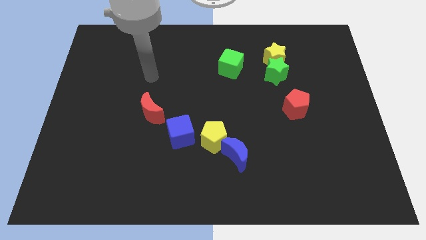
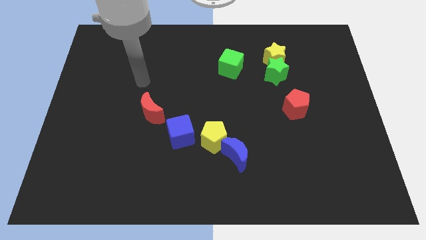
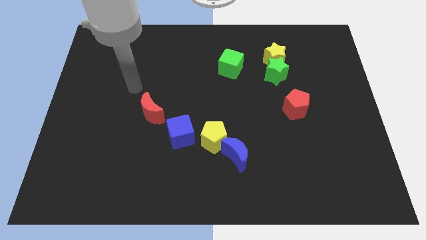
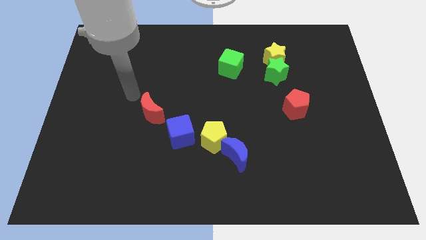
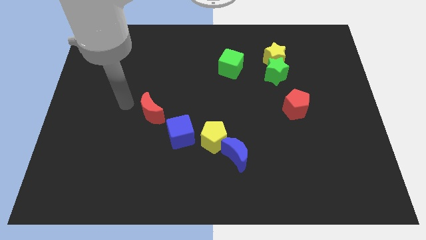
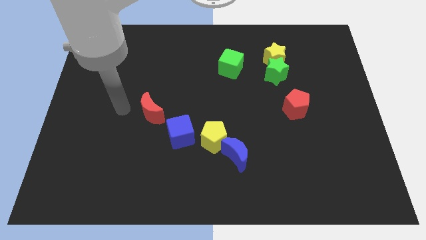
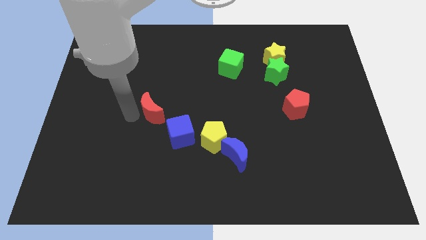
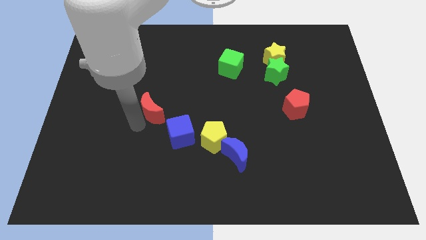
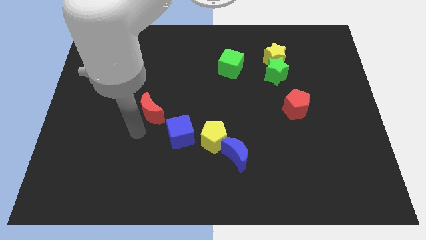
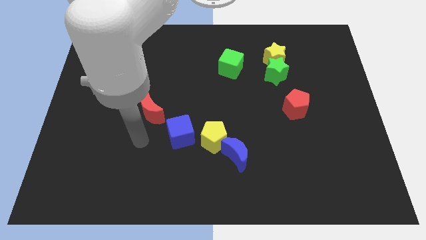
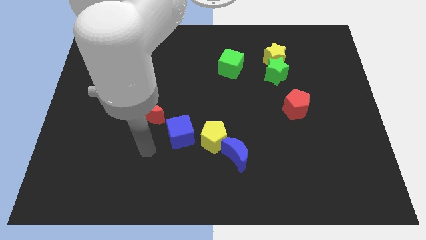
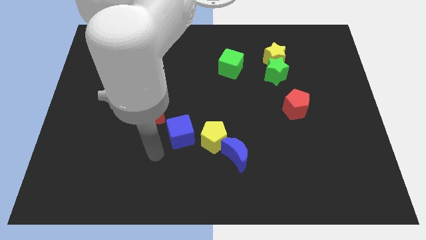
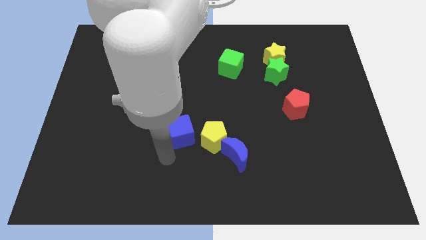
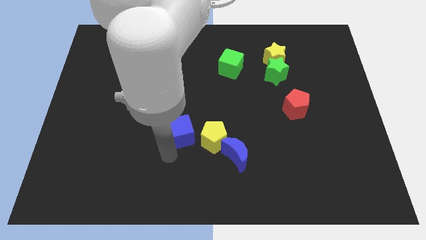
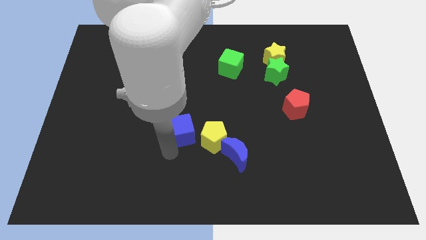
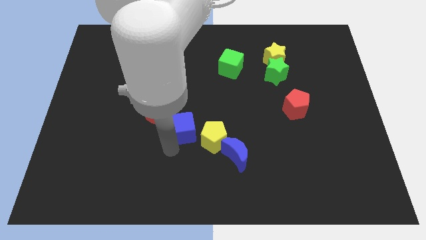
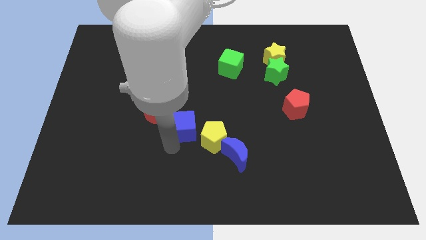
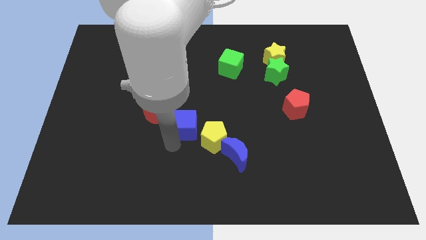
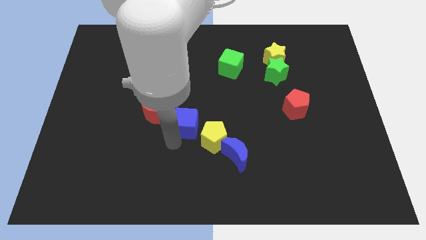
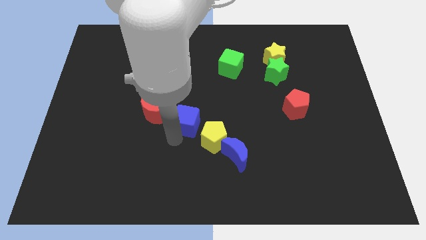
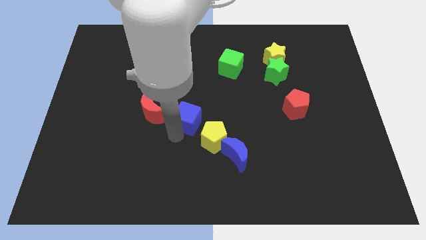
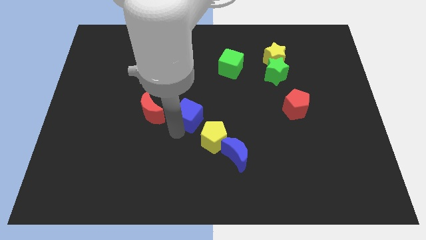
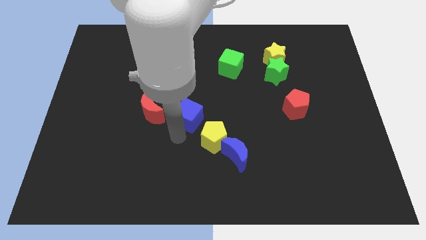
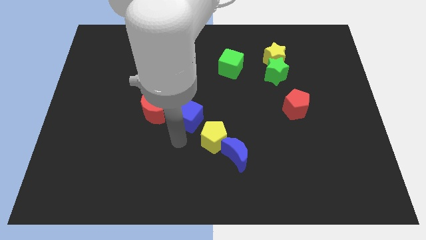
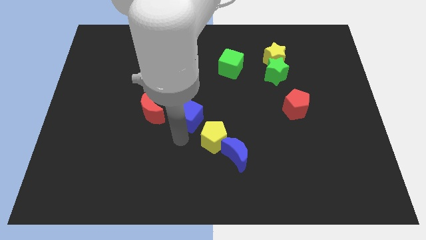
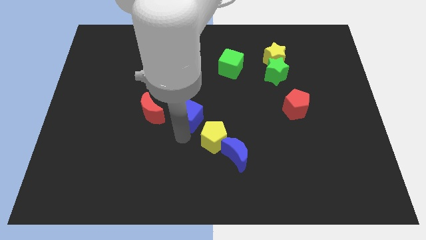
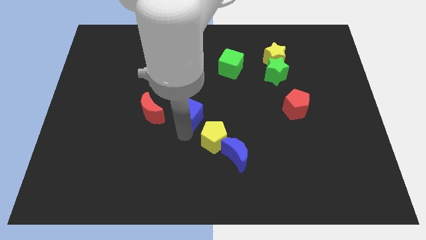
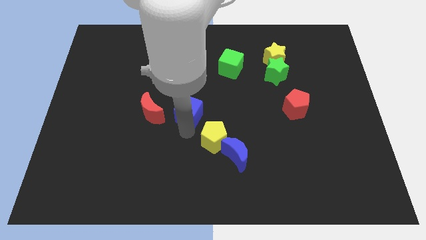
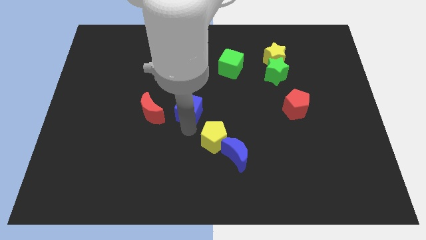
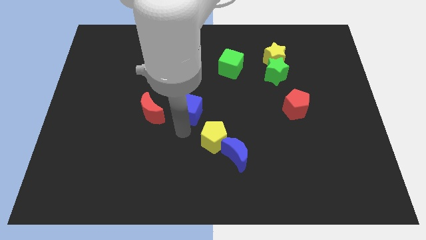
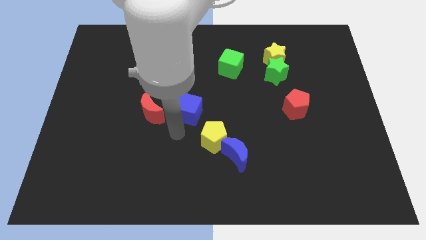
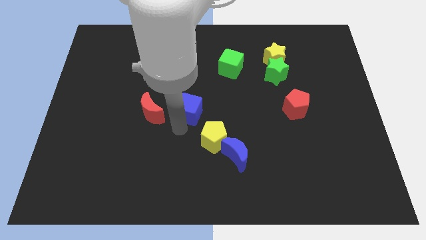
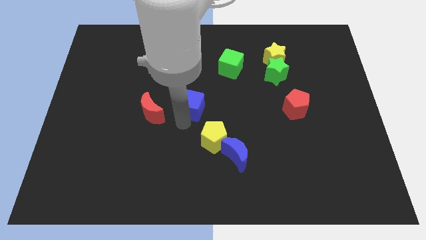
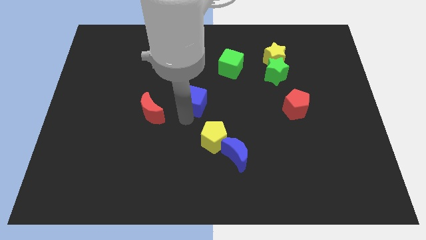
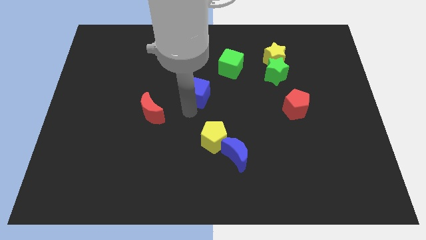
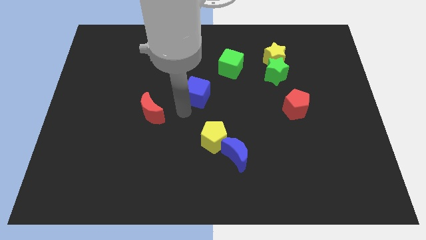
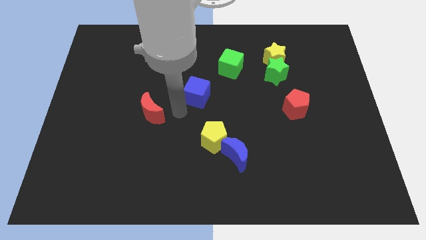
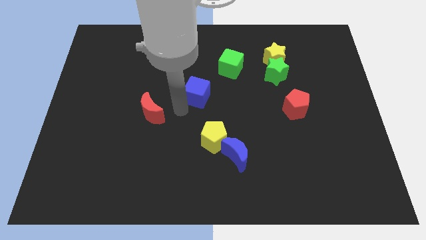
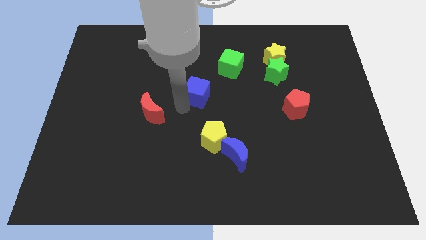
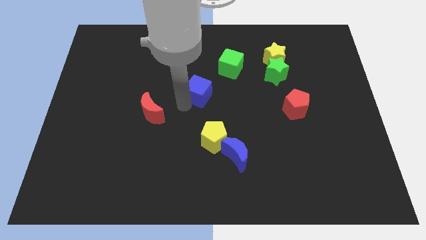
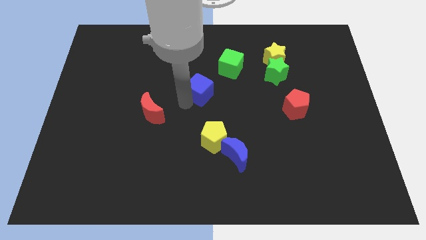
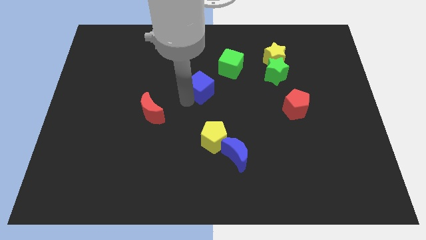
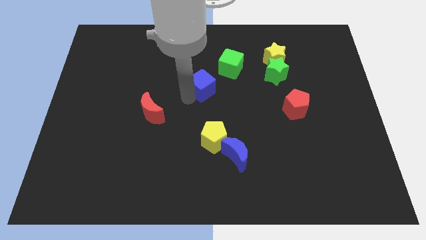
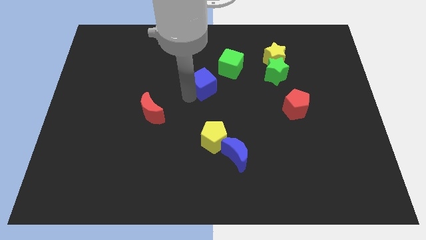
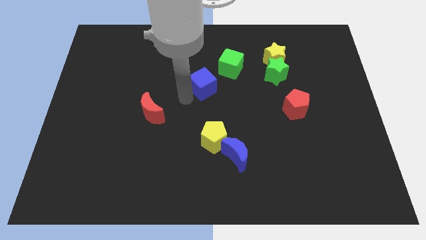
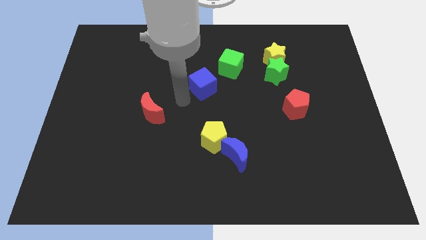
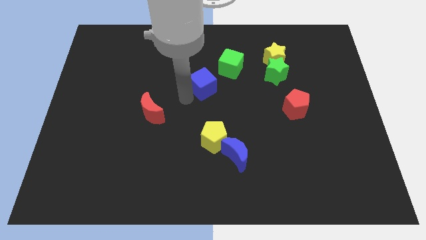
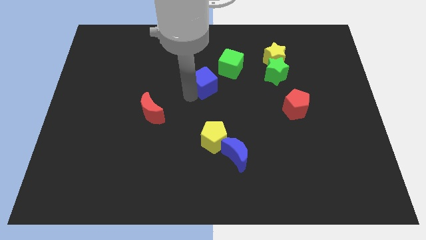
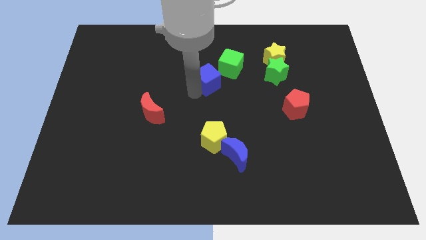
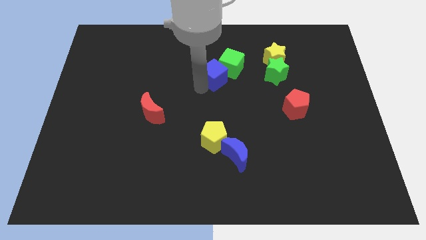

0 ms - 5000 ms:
put the blue cube to the green cube

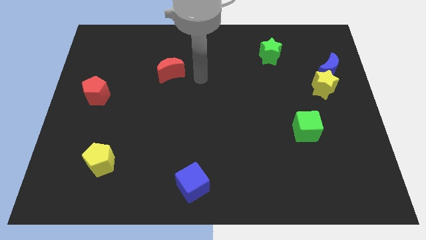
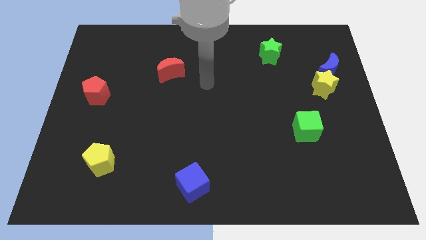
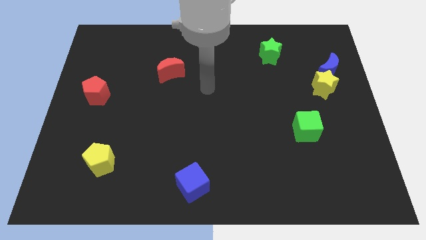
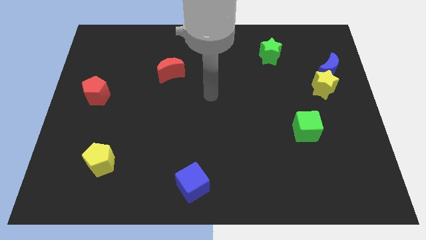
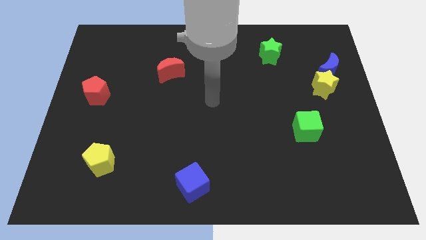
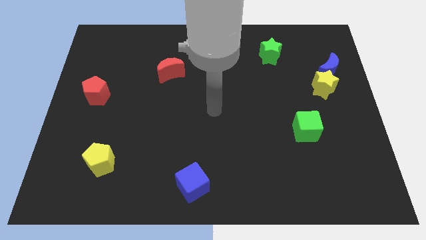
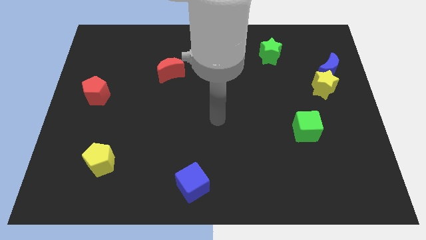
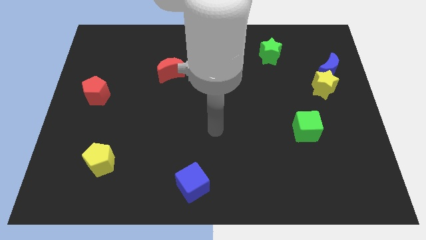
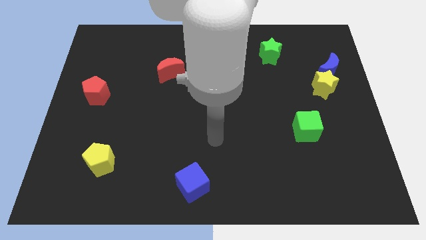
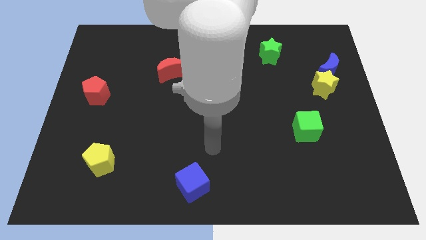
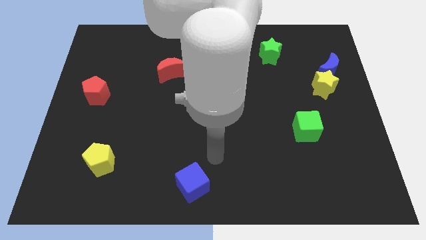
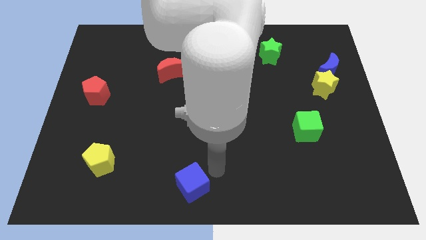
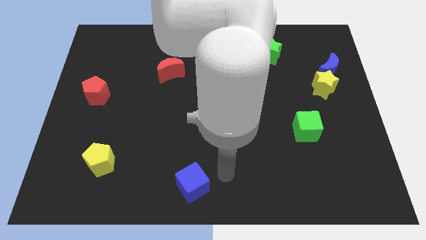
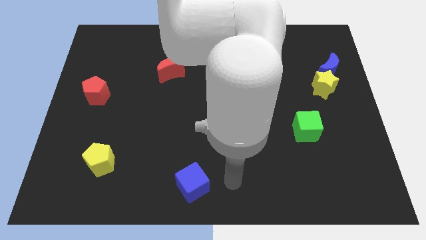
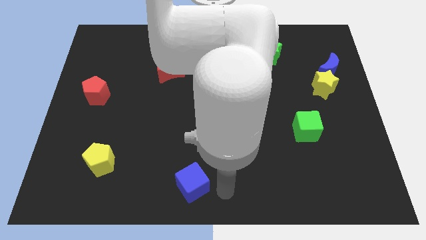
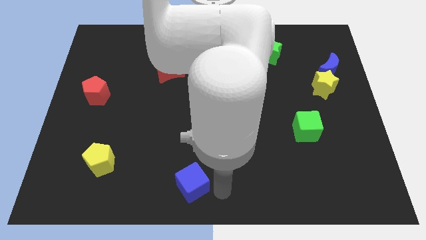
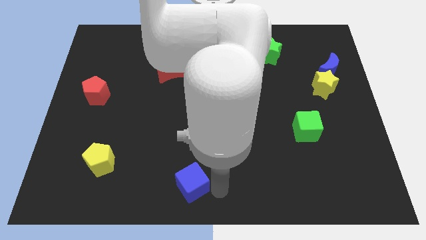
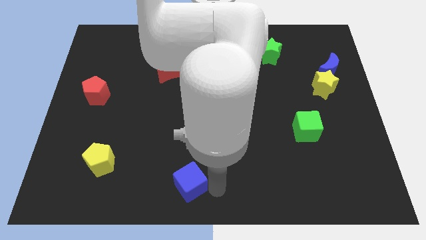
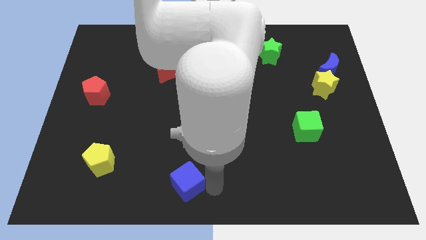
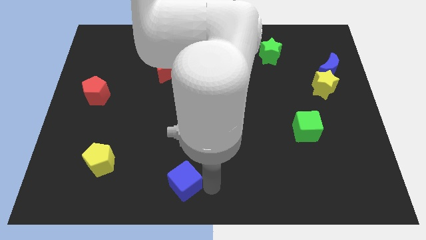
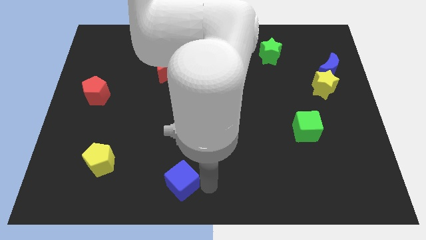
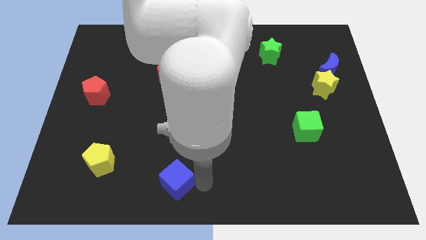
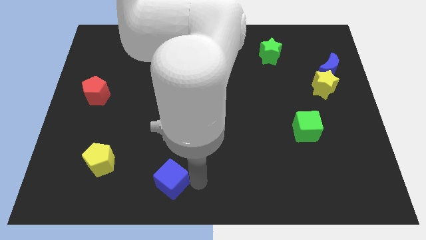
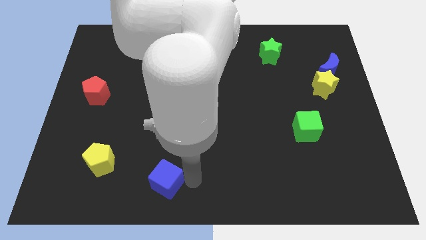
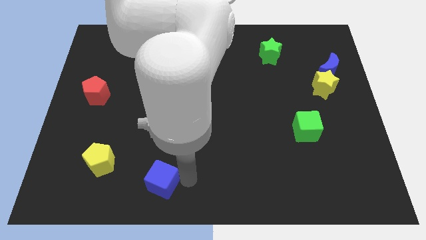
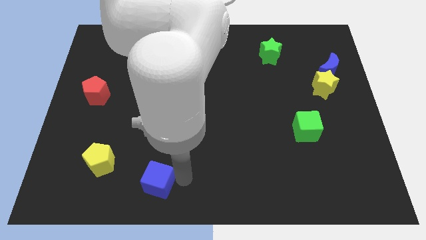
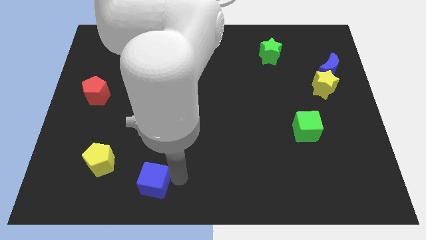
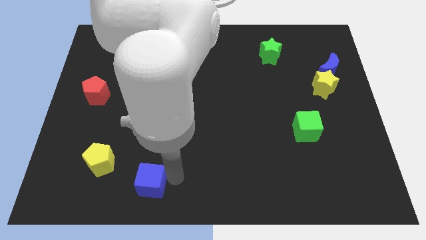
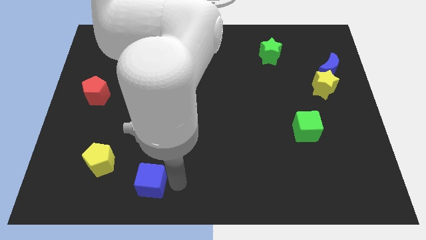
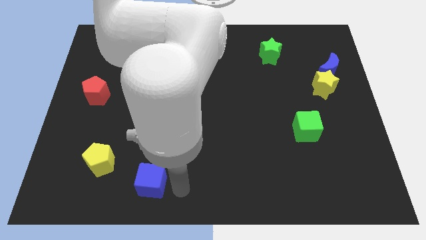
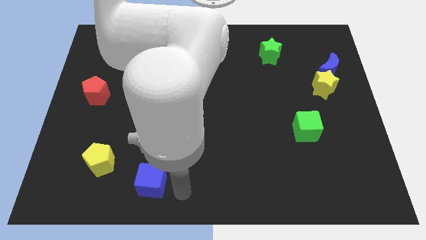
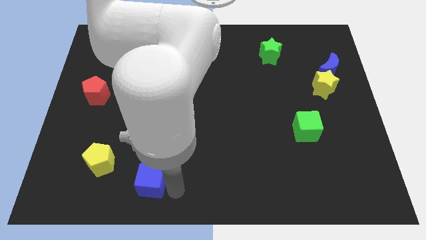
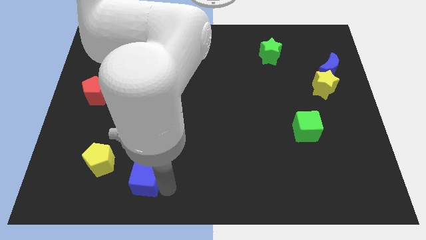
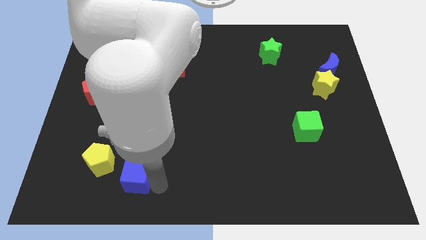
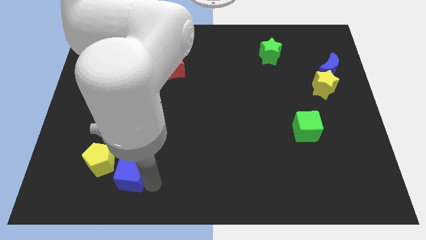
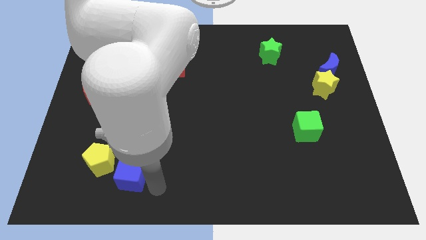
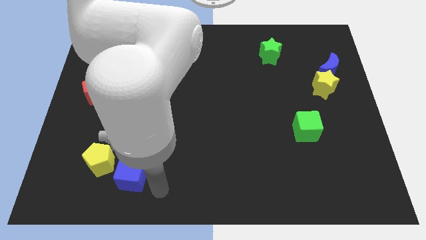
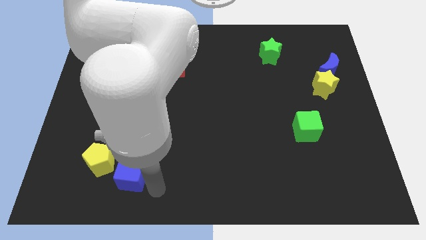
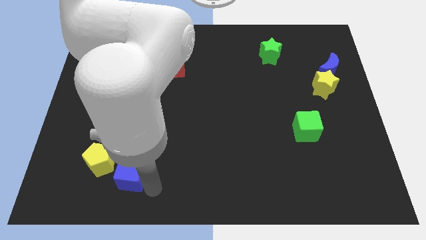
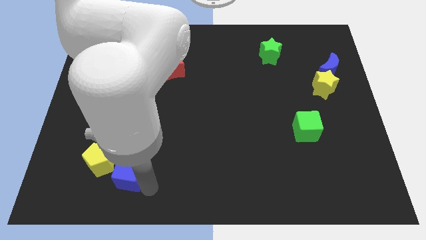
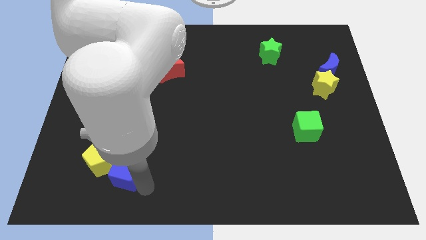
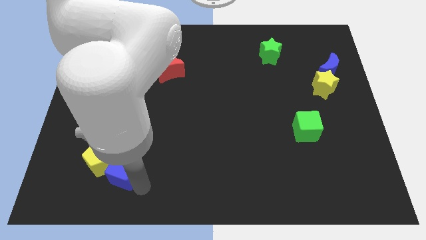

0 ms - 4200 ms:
move the blue cube towards the yellow pentagon
